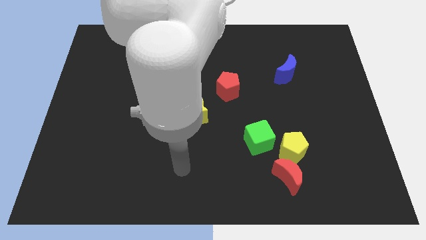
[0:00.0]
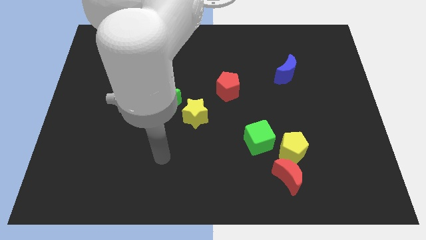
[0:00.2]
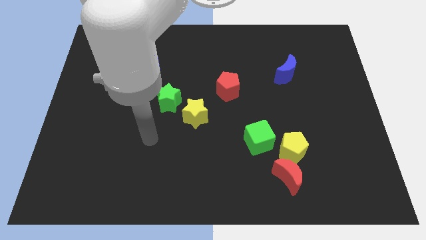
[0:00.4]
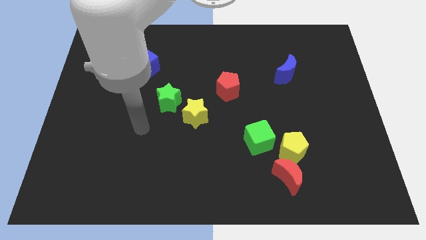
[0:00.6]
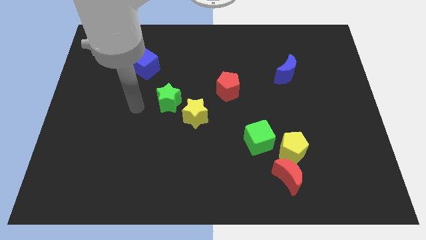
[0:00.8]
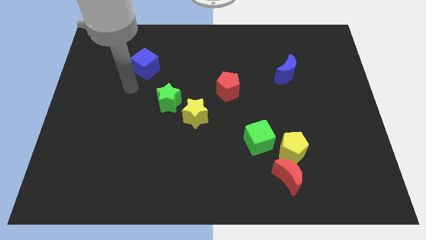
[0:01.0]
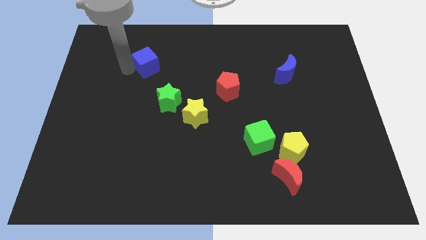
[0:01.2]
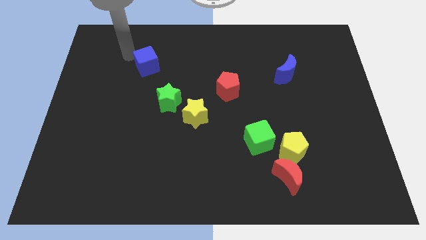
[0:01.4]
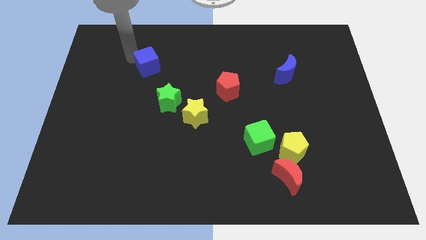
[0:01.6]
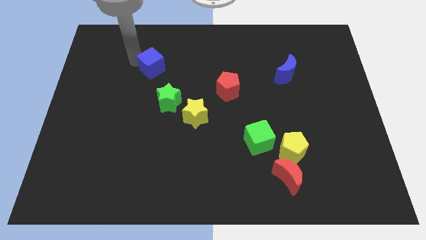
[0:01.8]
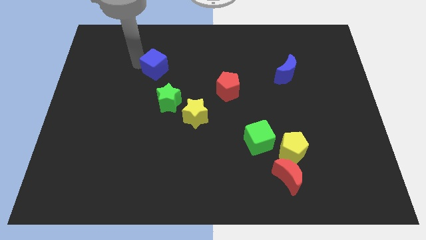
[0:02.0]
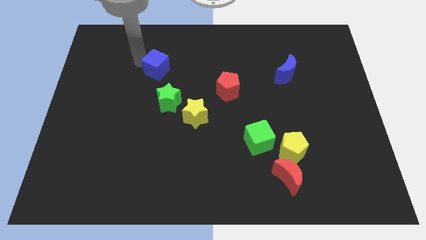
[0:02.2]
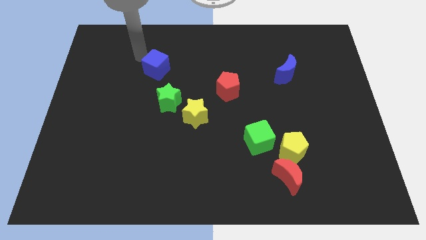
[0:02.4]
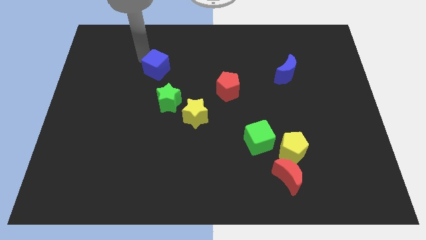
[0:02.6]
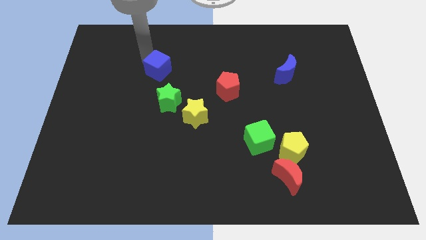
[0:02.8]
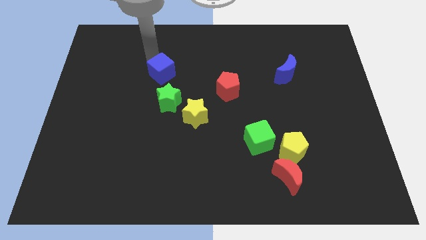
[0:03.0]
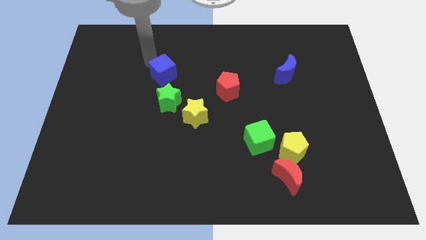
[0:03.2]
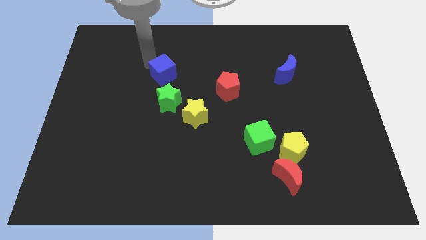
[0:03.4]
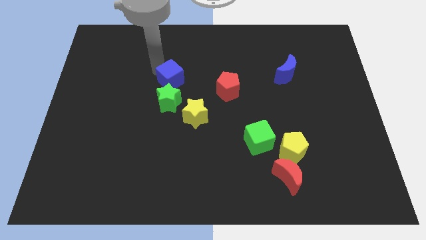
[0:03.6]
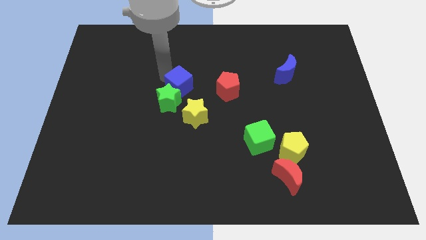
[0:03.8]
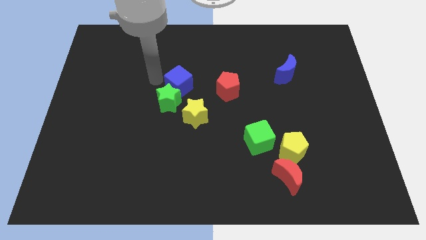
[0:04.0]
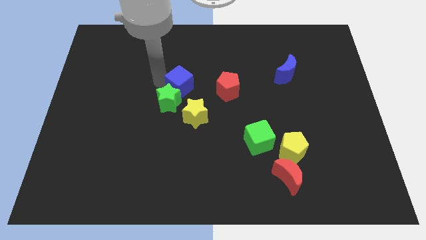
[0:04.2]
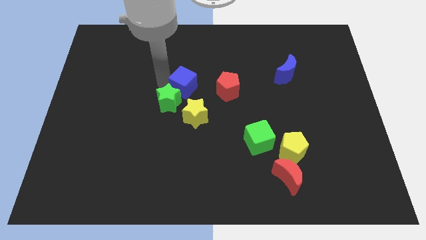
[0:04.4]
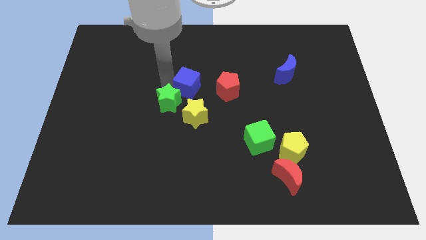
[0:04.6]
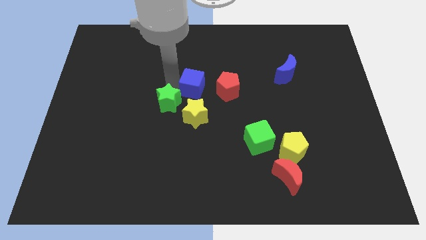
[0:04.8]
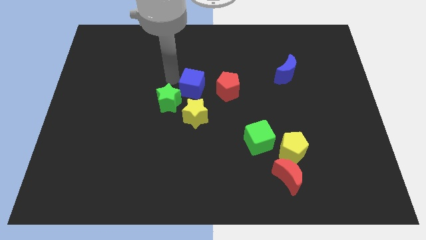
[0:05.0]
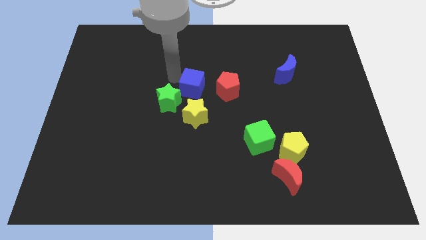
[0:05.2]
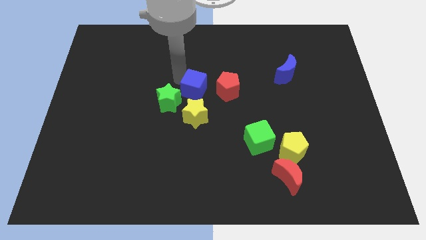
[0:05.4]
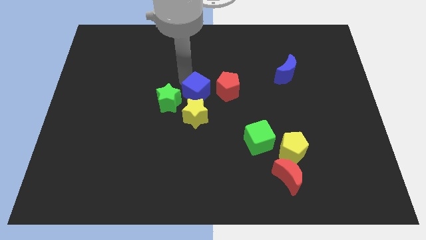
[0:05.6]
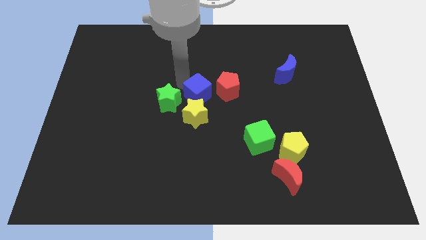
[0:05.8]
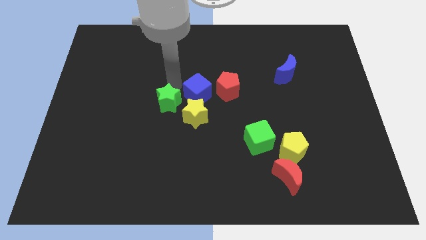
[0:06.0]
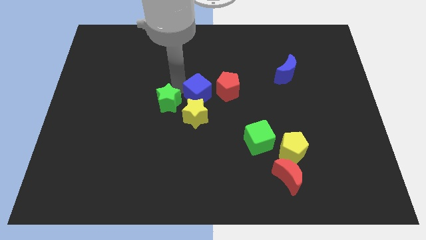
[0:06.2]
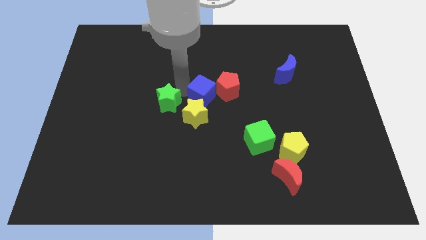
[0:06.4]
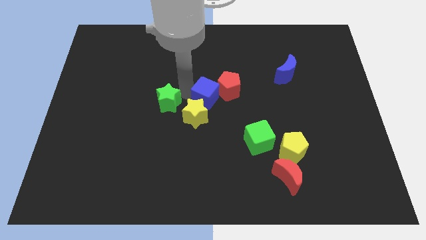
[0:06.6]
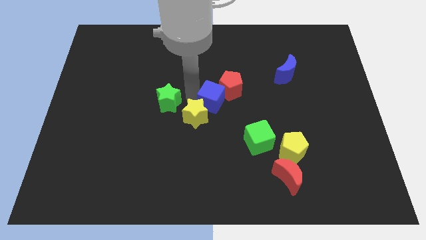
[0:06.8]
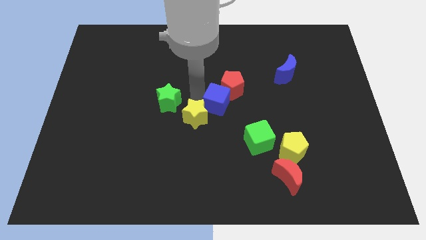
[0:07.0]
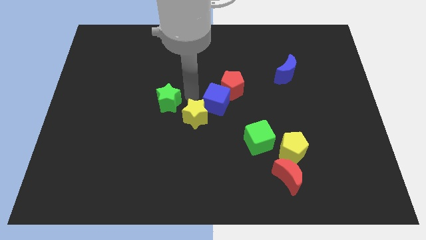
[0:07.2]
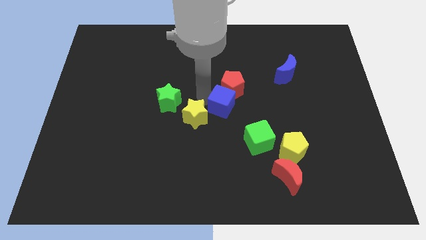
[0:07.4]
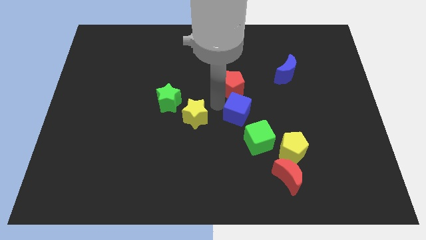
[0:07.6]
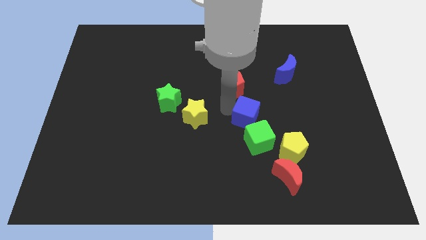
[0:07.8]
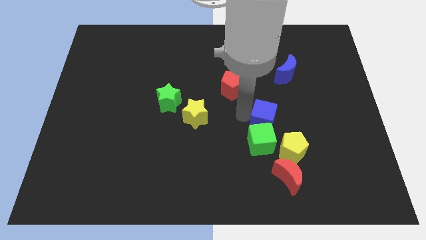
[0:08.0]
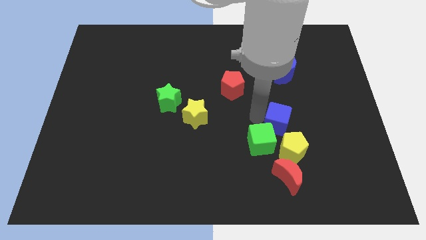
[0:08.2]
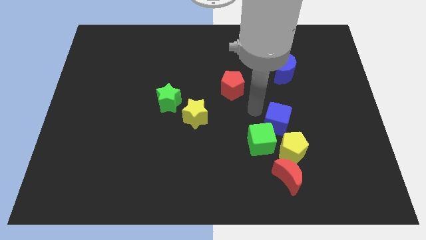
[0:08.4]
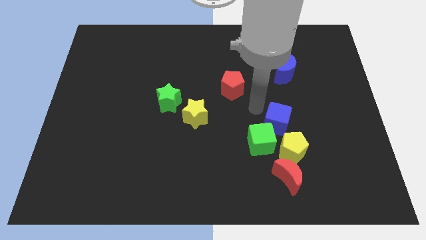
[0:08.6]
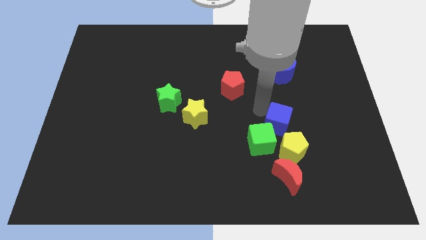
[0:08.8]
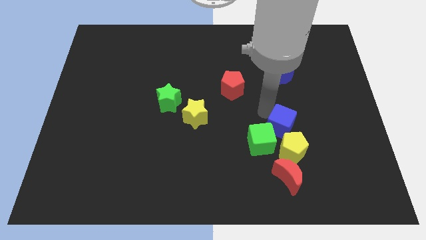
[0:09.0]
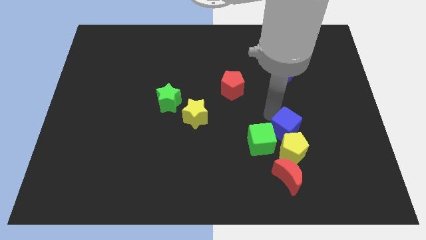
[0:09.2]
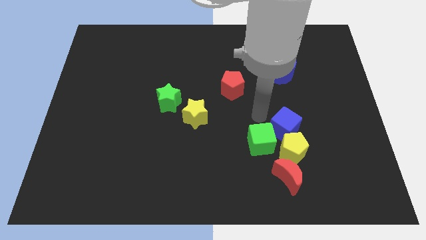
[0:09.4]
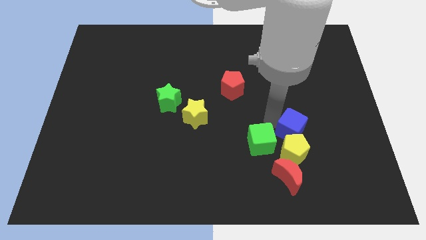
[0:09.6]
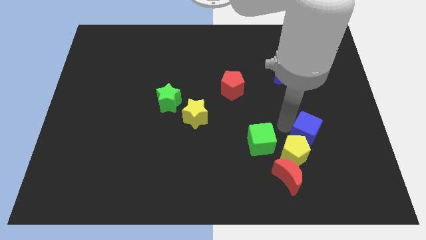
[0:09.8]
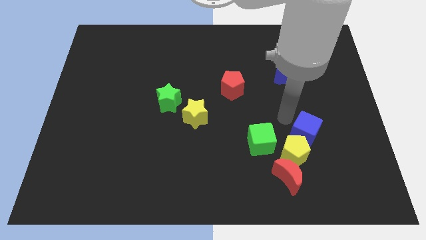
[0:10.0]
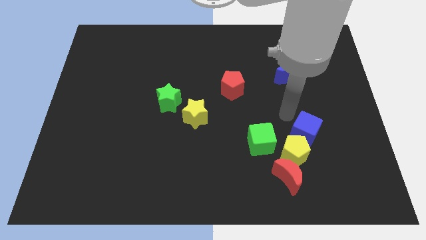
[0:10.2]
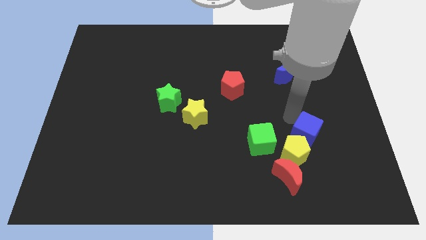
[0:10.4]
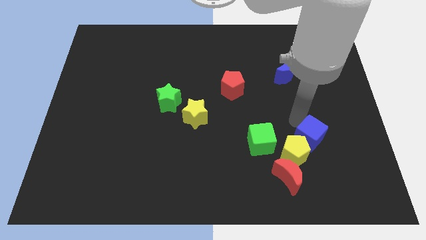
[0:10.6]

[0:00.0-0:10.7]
put the blue cube to the right of the yellow pentagon

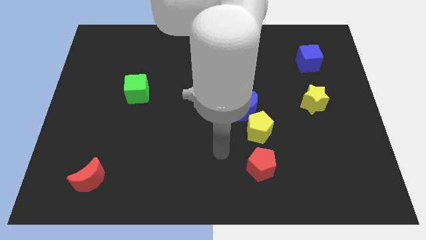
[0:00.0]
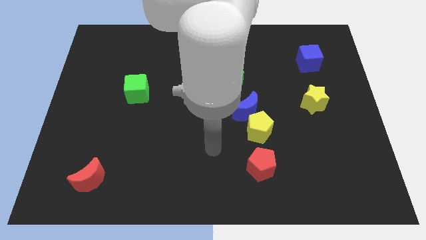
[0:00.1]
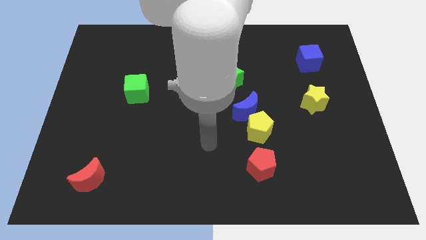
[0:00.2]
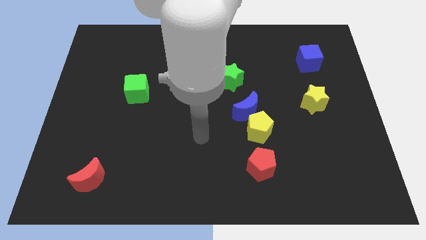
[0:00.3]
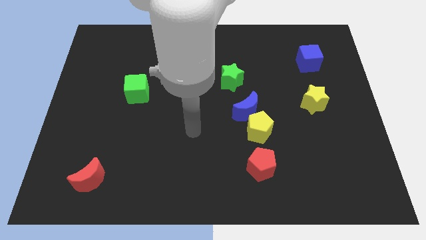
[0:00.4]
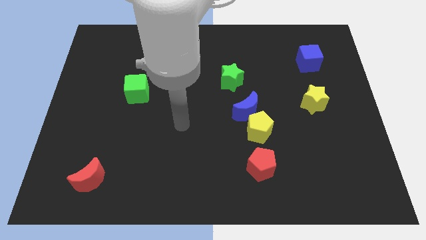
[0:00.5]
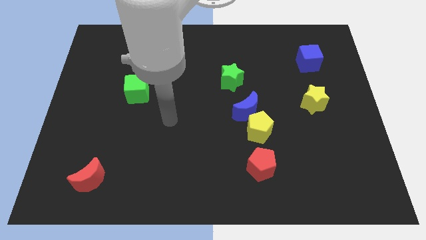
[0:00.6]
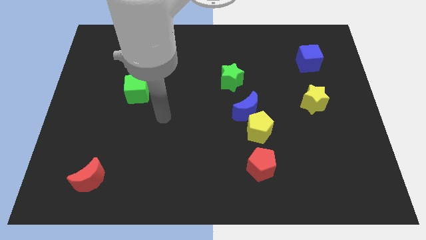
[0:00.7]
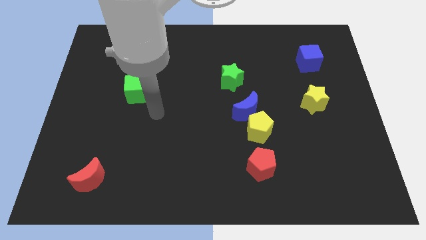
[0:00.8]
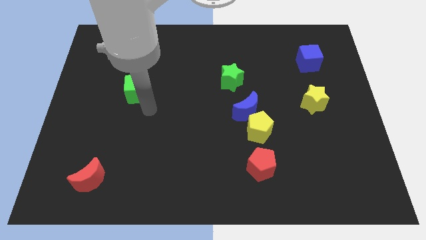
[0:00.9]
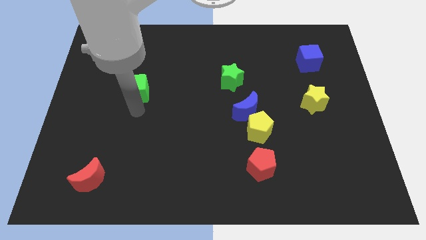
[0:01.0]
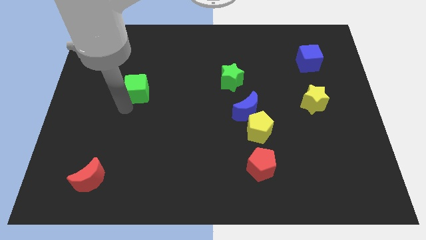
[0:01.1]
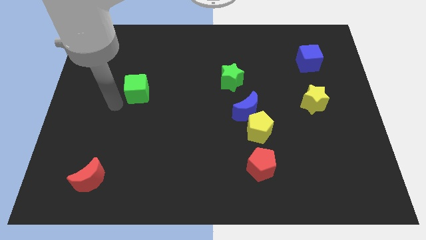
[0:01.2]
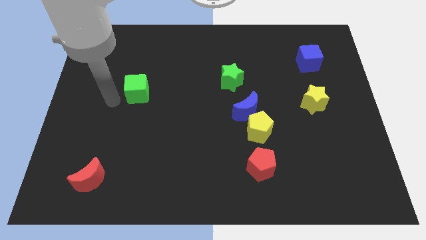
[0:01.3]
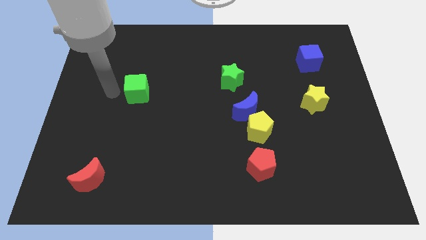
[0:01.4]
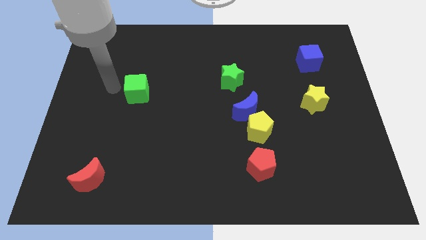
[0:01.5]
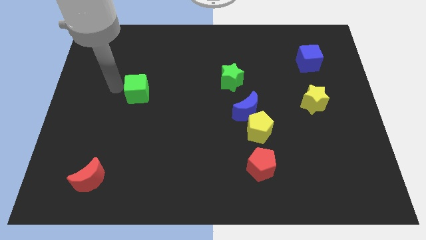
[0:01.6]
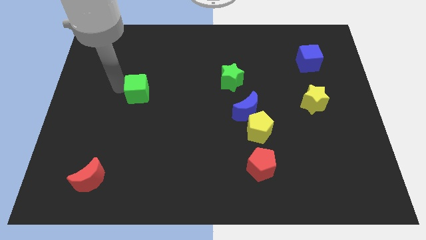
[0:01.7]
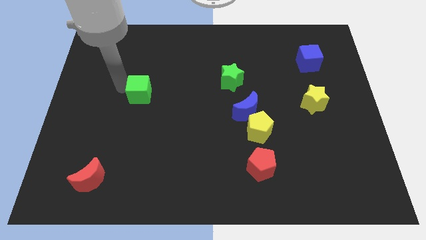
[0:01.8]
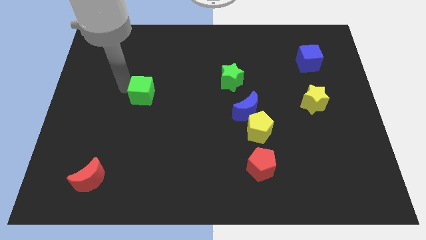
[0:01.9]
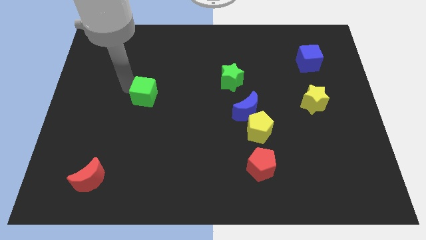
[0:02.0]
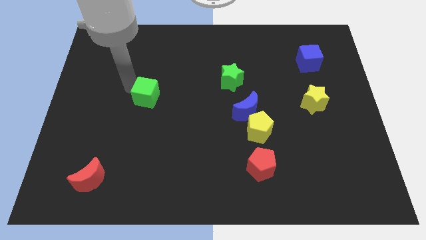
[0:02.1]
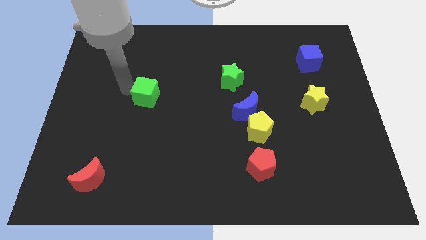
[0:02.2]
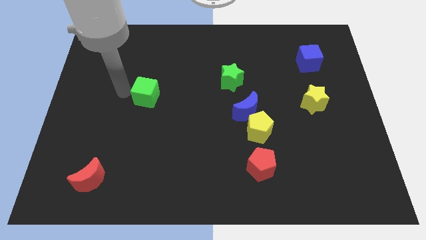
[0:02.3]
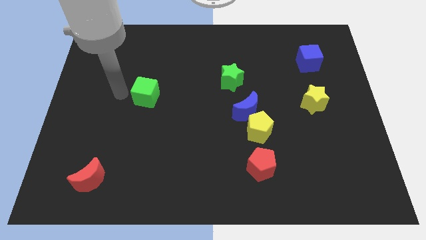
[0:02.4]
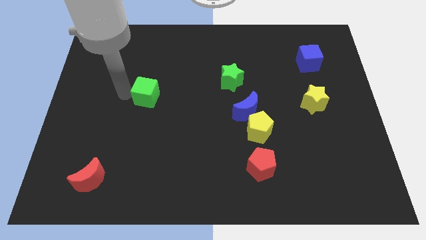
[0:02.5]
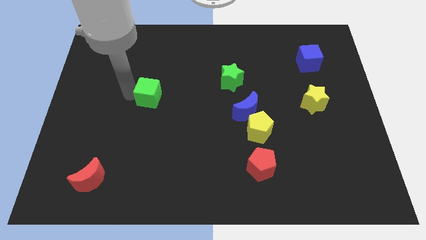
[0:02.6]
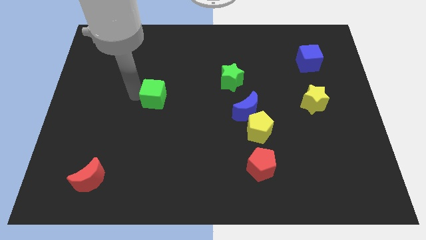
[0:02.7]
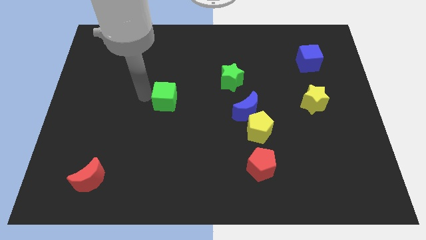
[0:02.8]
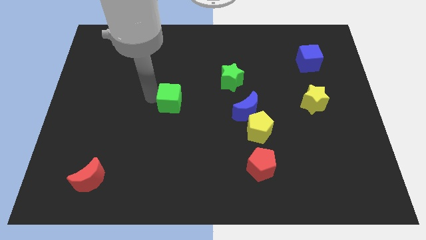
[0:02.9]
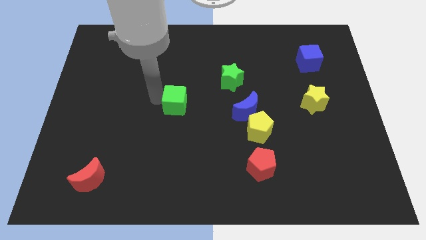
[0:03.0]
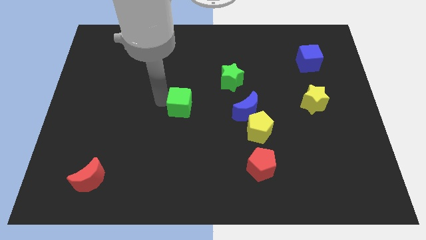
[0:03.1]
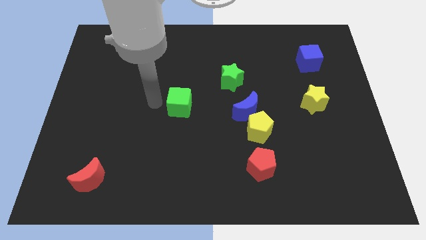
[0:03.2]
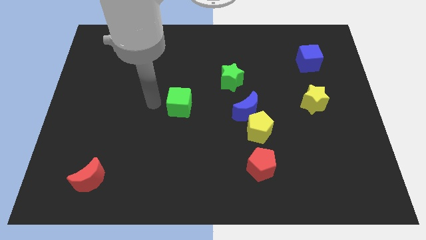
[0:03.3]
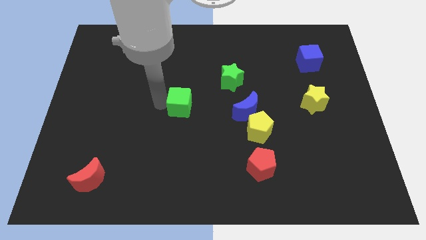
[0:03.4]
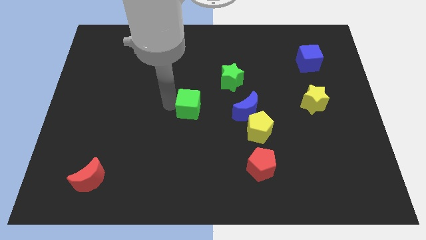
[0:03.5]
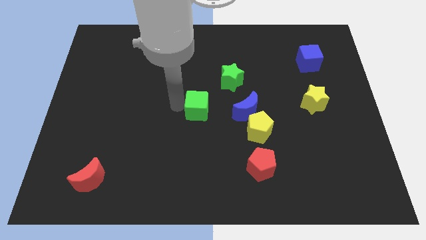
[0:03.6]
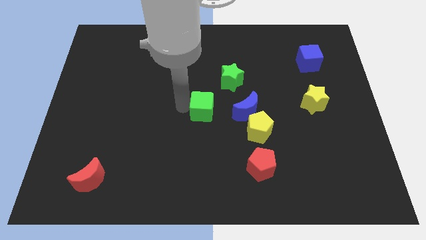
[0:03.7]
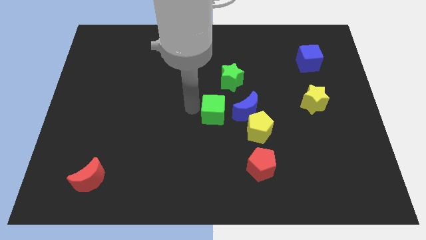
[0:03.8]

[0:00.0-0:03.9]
put the green cube to the top left side of the yellow pentagon
